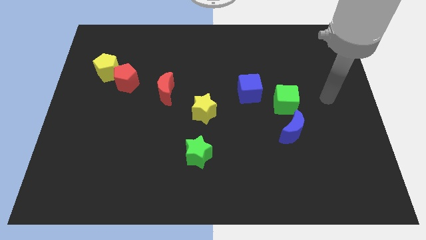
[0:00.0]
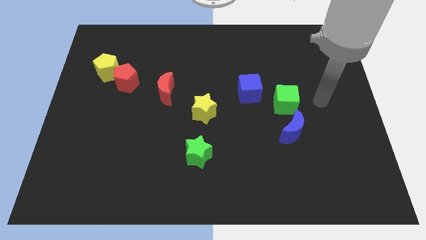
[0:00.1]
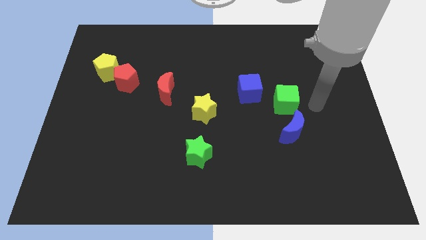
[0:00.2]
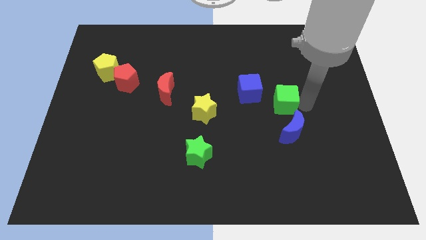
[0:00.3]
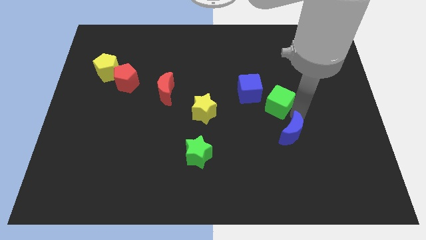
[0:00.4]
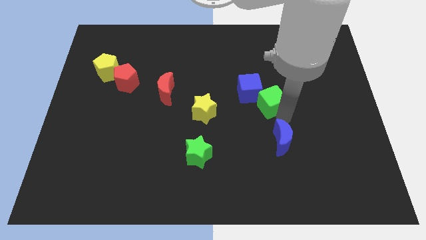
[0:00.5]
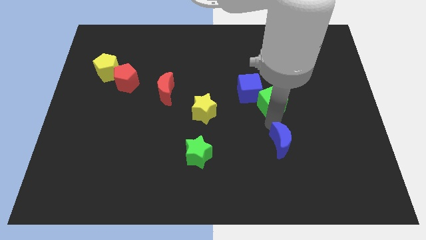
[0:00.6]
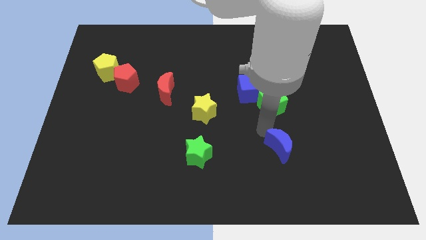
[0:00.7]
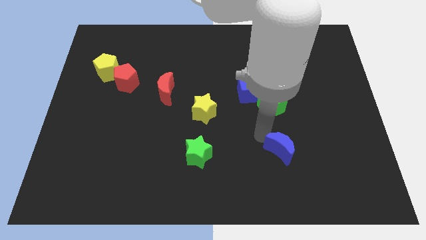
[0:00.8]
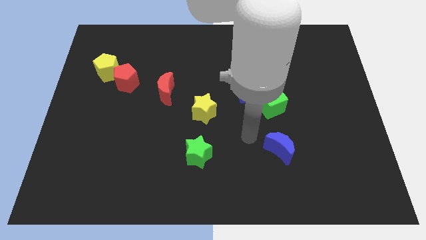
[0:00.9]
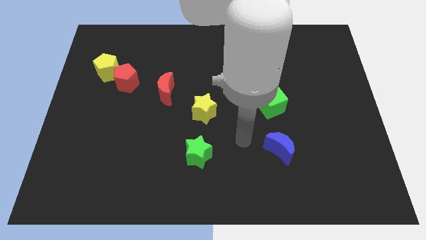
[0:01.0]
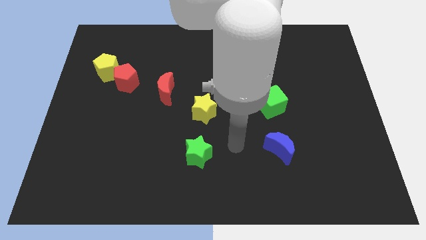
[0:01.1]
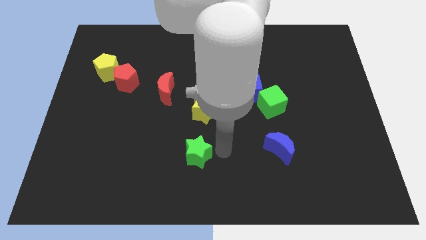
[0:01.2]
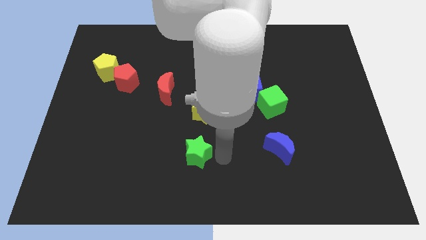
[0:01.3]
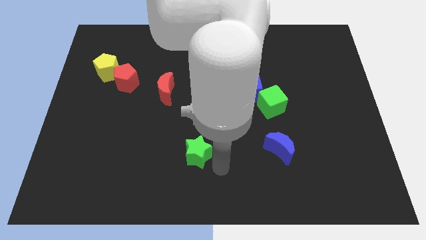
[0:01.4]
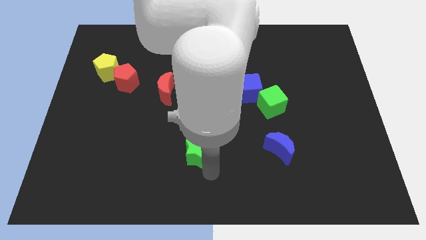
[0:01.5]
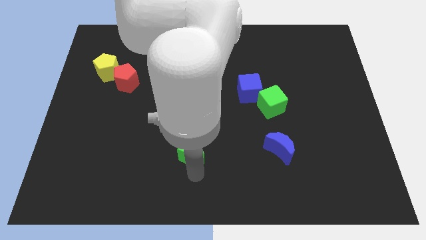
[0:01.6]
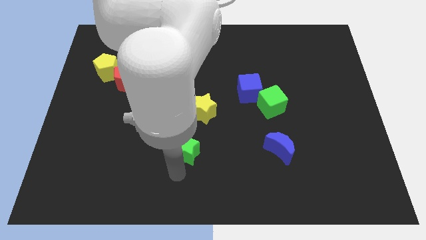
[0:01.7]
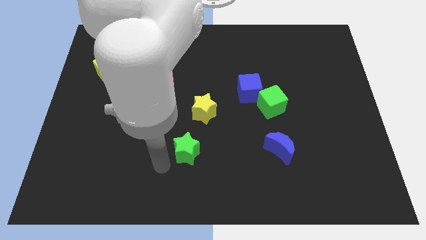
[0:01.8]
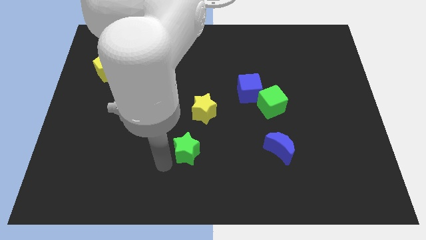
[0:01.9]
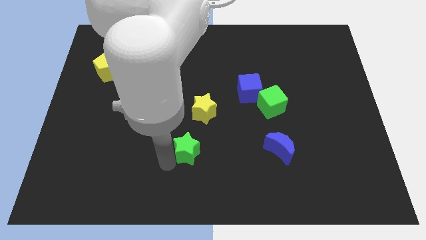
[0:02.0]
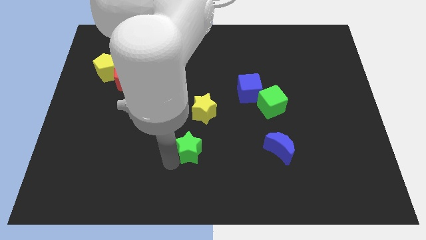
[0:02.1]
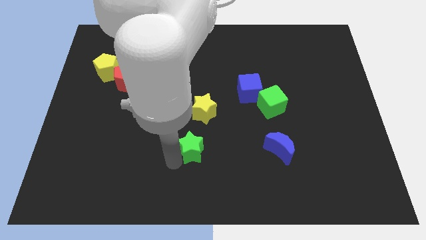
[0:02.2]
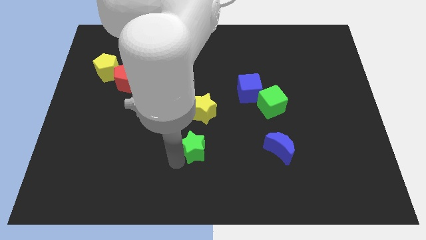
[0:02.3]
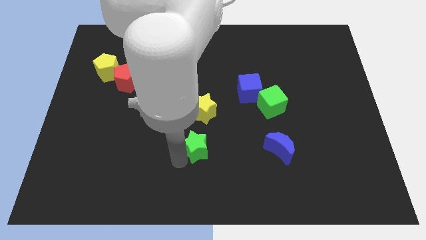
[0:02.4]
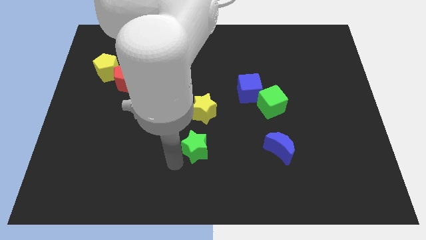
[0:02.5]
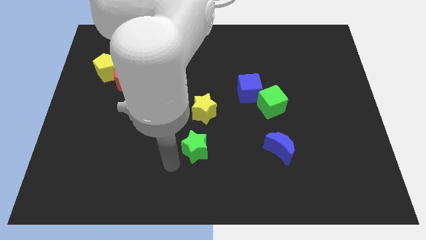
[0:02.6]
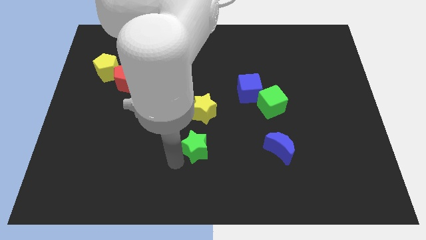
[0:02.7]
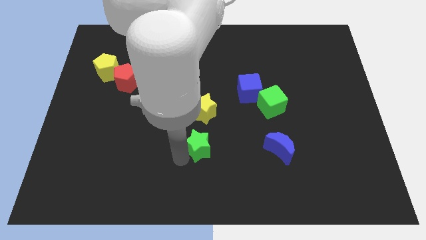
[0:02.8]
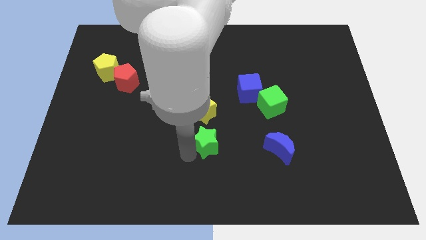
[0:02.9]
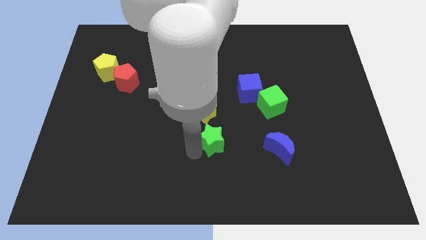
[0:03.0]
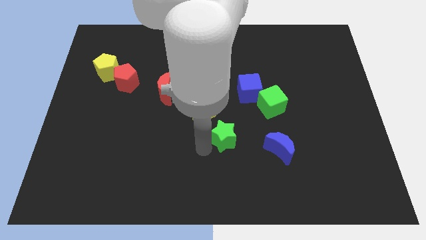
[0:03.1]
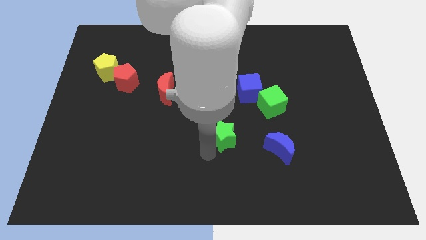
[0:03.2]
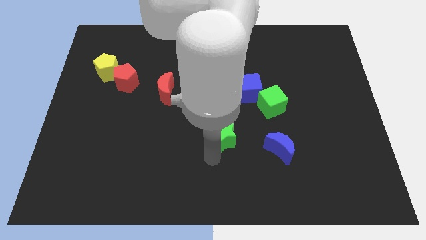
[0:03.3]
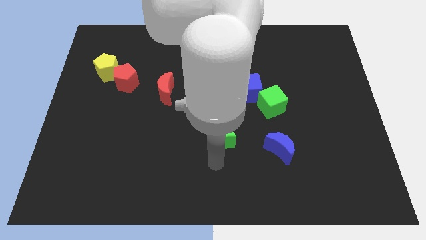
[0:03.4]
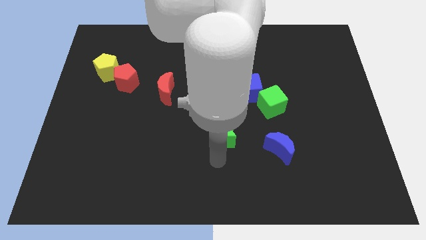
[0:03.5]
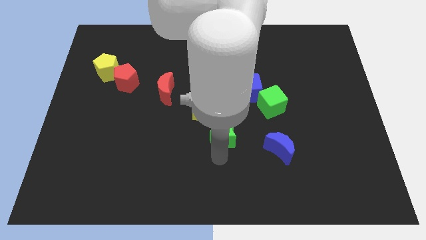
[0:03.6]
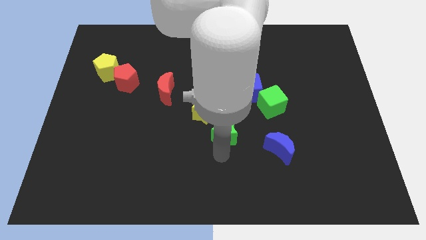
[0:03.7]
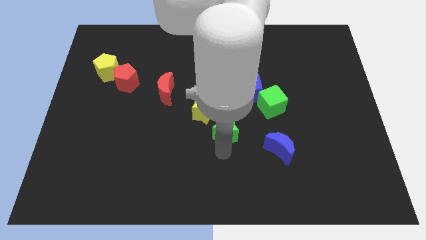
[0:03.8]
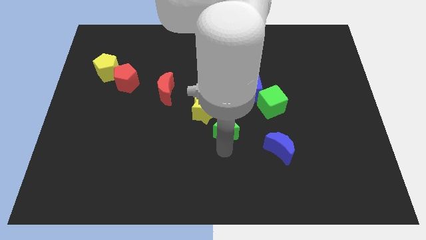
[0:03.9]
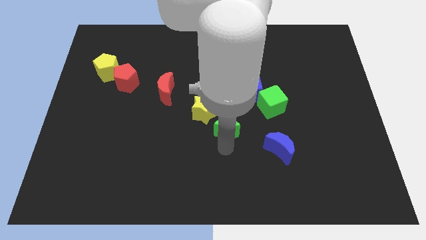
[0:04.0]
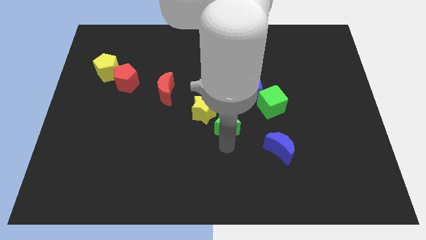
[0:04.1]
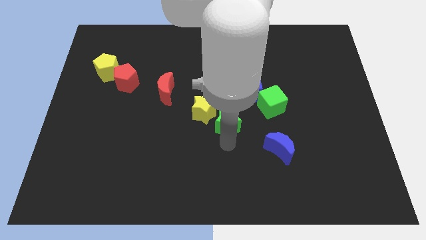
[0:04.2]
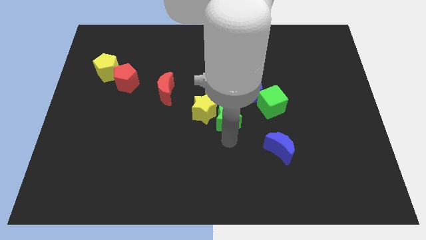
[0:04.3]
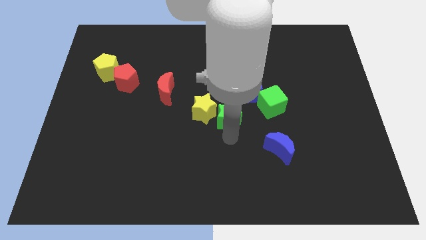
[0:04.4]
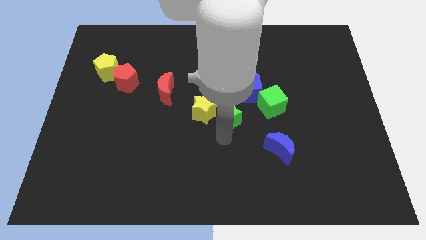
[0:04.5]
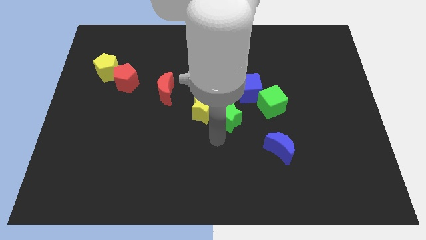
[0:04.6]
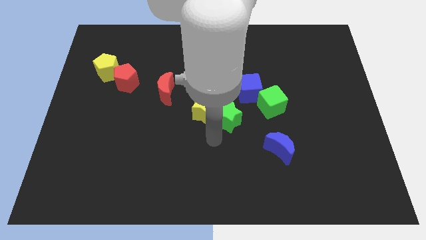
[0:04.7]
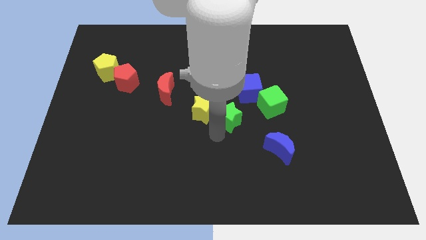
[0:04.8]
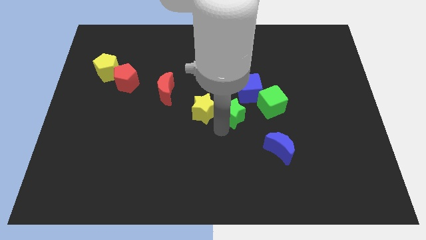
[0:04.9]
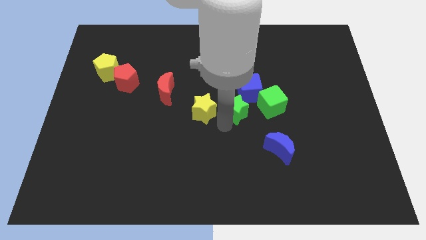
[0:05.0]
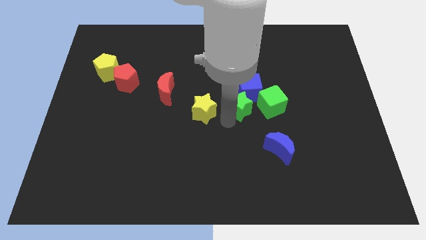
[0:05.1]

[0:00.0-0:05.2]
put the green star towards the blue cube

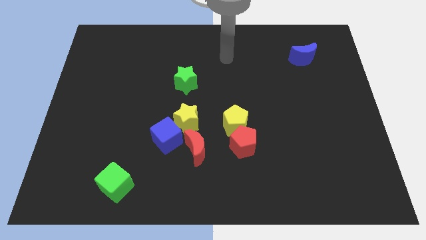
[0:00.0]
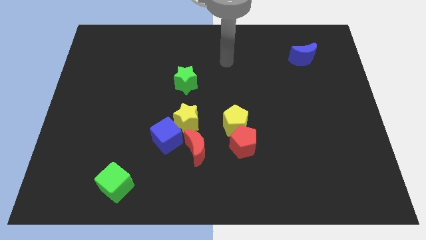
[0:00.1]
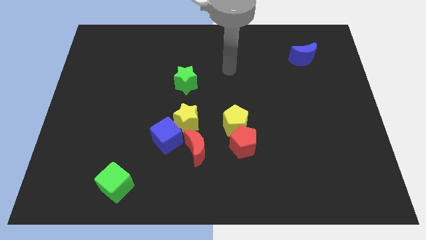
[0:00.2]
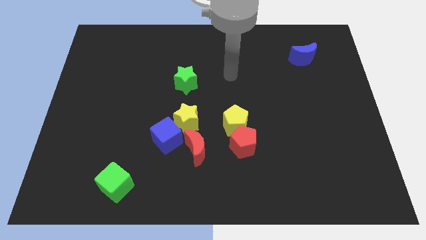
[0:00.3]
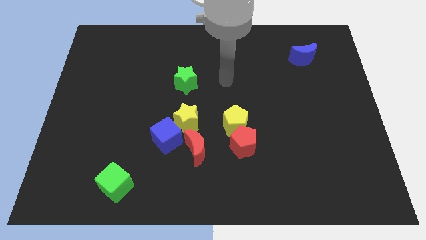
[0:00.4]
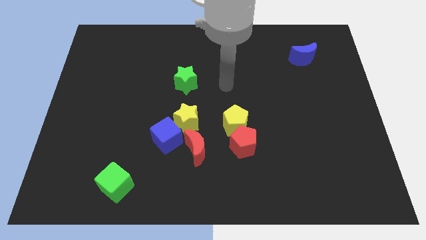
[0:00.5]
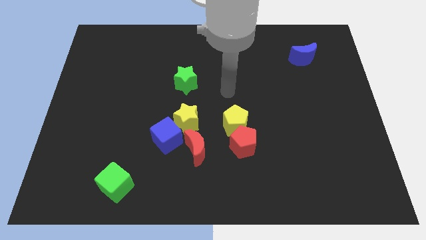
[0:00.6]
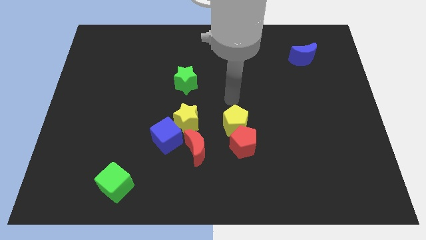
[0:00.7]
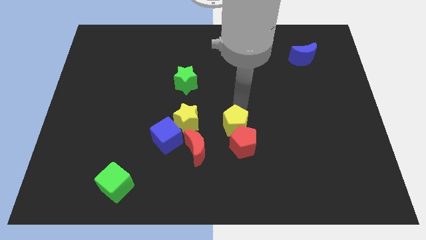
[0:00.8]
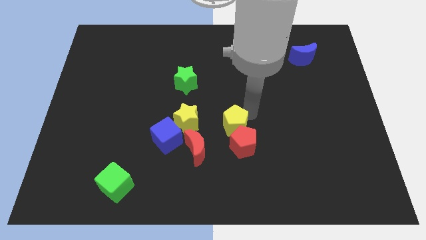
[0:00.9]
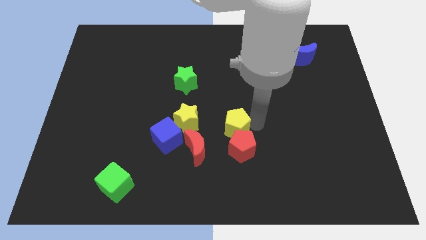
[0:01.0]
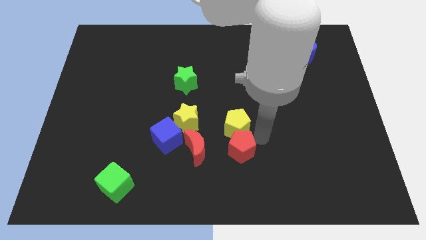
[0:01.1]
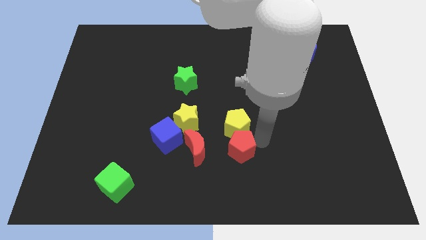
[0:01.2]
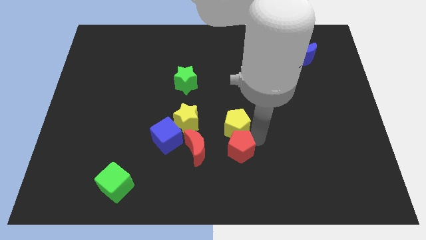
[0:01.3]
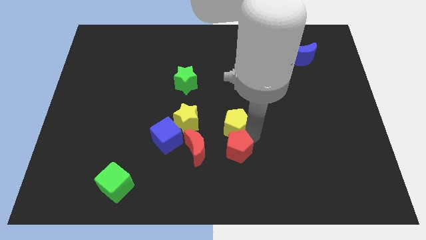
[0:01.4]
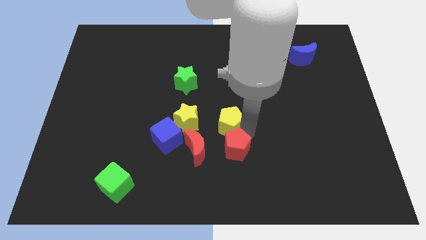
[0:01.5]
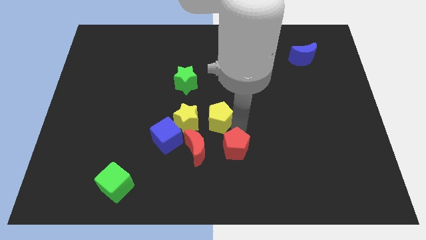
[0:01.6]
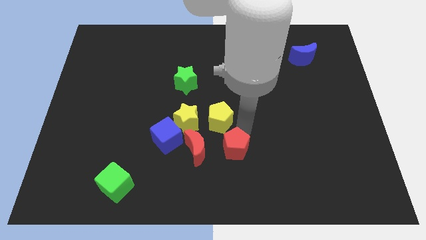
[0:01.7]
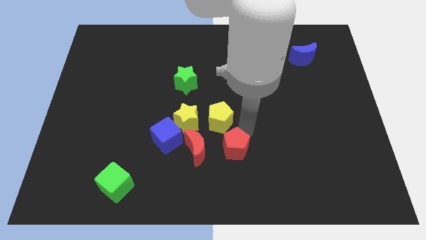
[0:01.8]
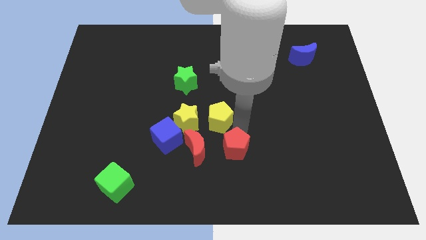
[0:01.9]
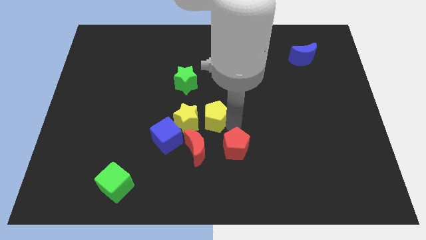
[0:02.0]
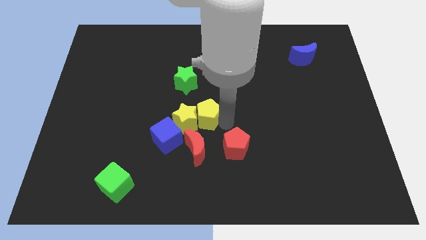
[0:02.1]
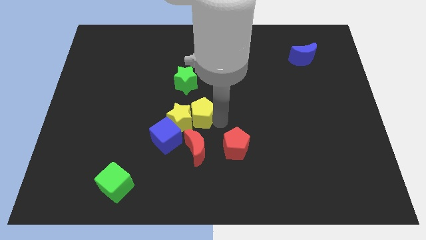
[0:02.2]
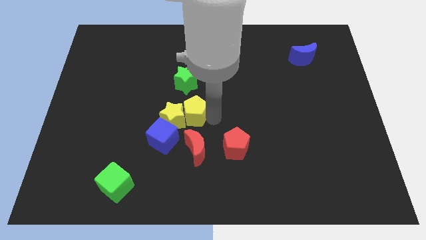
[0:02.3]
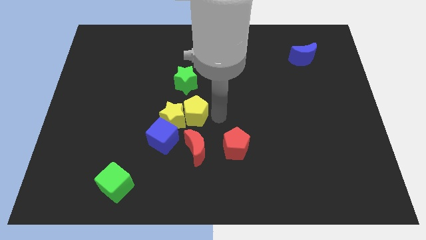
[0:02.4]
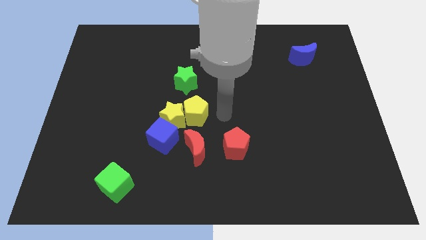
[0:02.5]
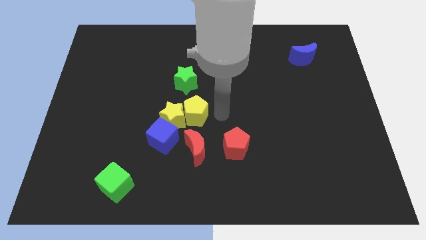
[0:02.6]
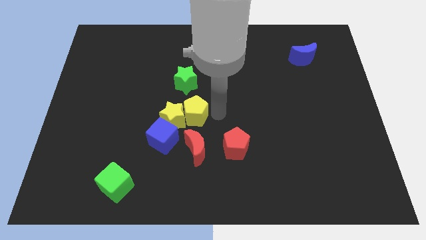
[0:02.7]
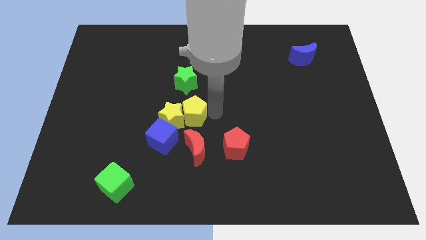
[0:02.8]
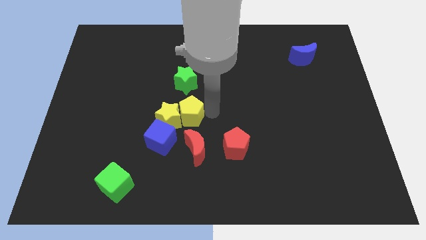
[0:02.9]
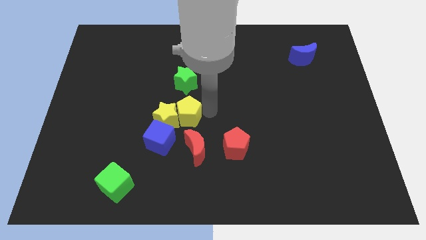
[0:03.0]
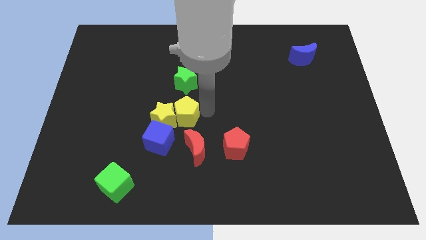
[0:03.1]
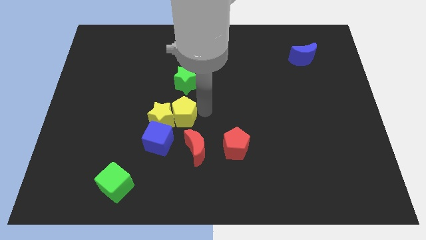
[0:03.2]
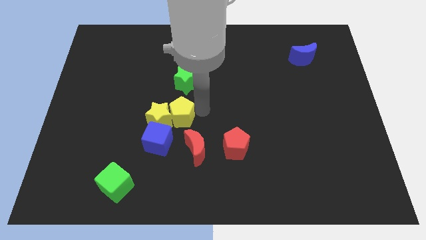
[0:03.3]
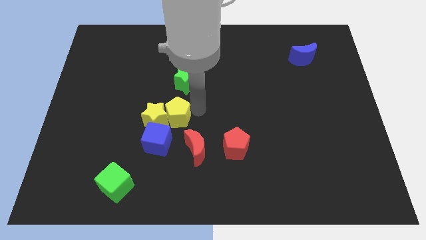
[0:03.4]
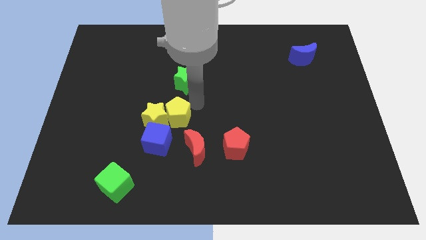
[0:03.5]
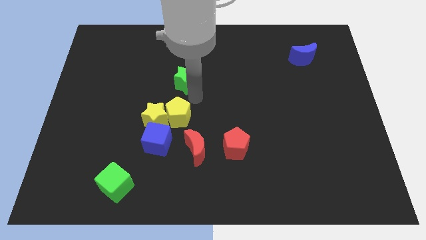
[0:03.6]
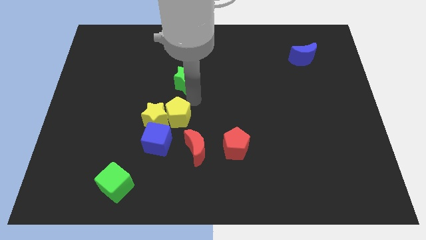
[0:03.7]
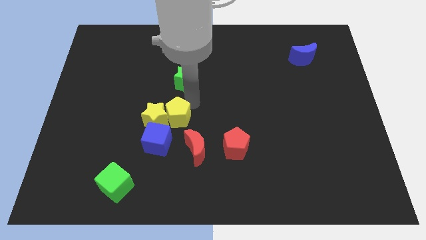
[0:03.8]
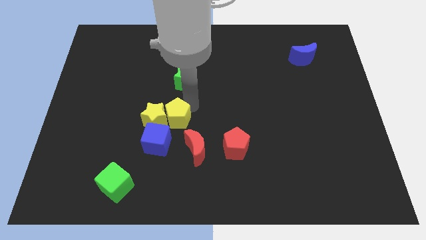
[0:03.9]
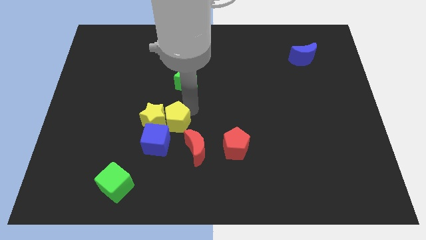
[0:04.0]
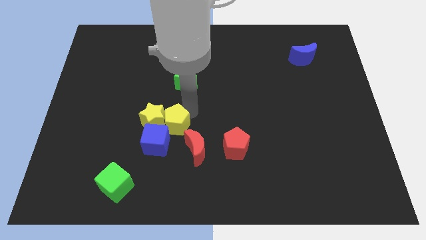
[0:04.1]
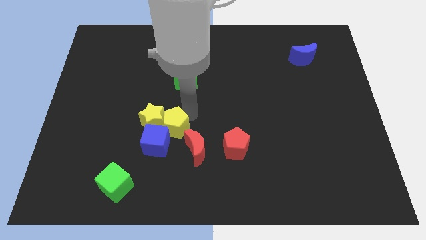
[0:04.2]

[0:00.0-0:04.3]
slide the yellow pentagon next to the blue cube
